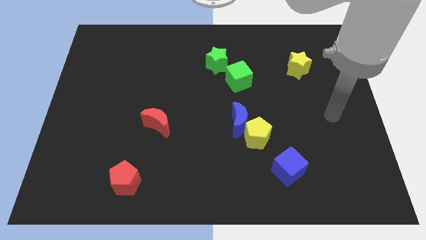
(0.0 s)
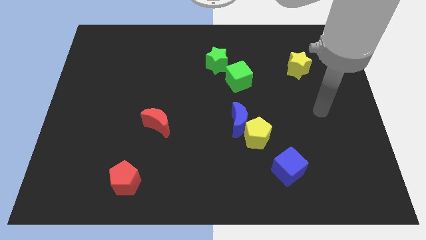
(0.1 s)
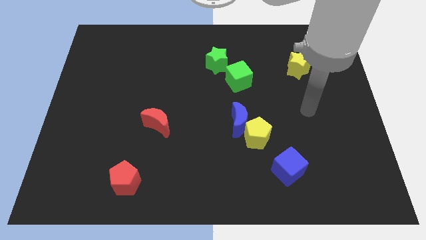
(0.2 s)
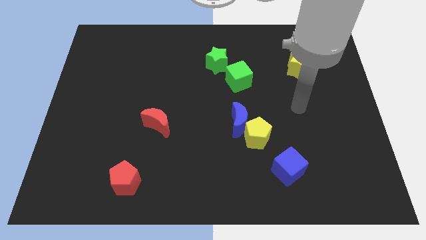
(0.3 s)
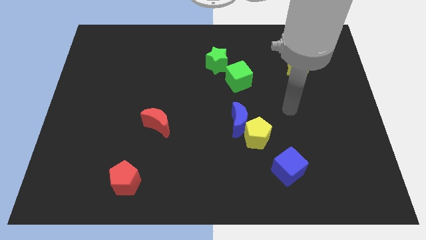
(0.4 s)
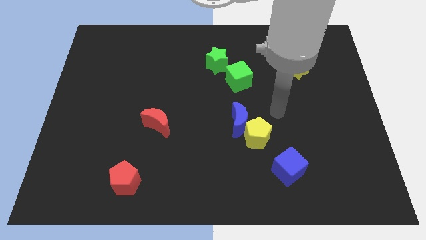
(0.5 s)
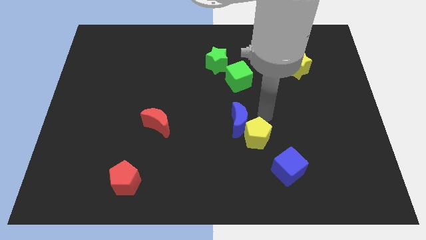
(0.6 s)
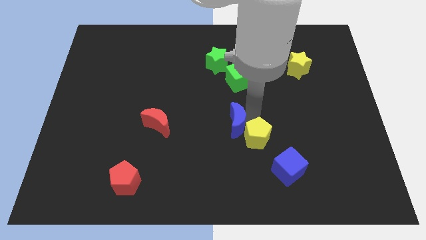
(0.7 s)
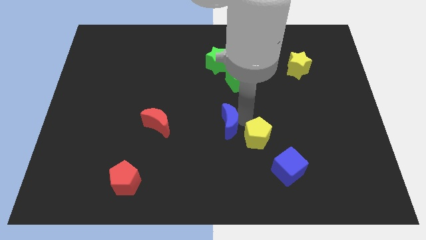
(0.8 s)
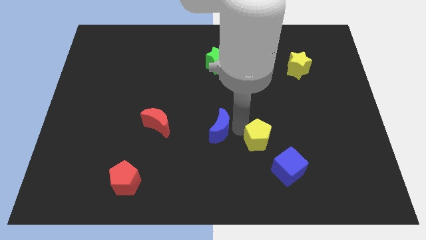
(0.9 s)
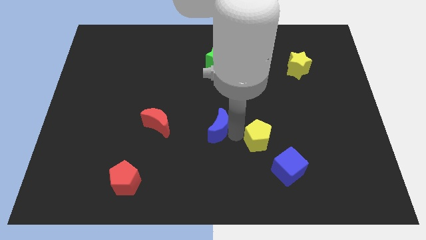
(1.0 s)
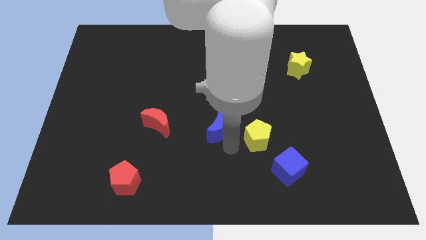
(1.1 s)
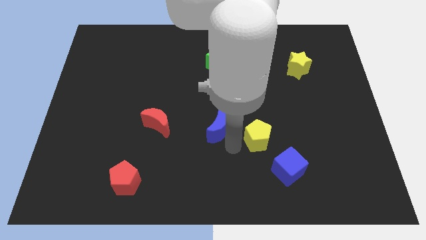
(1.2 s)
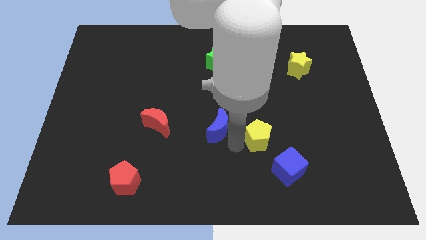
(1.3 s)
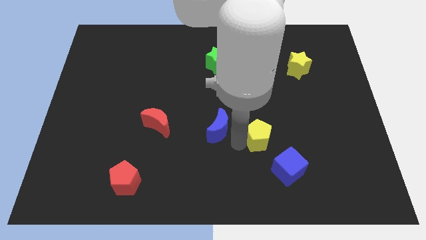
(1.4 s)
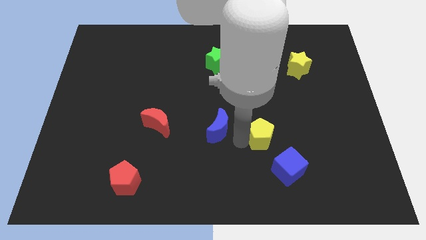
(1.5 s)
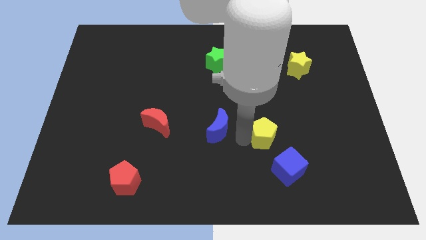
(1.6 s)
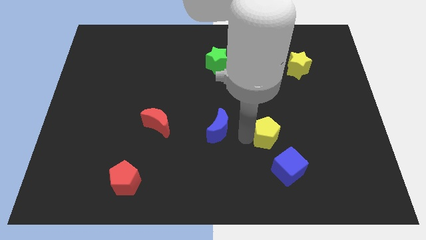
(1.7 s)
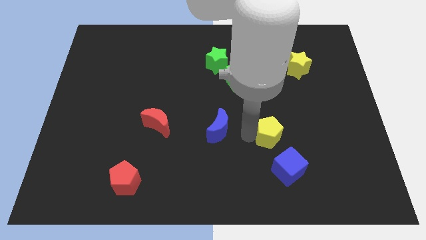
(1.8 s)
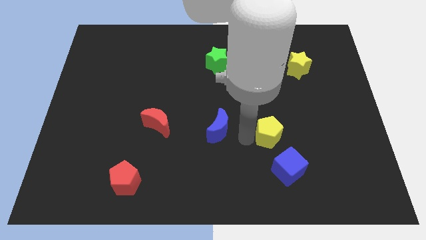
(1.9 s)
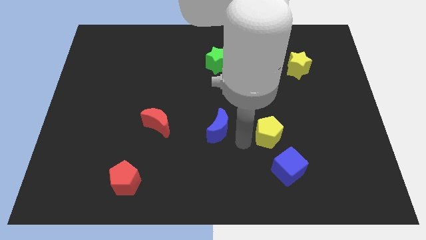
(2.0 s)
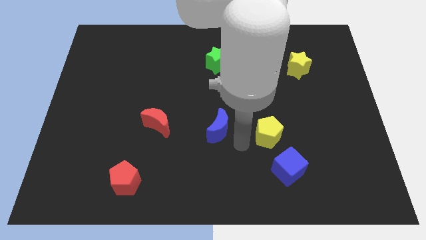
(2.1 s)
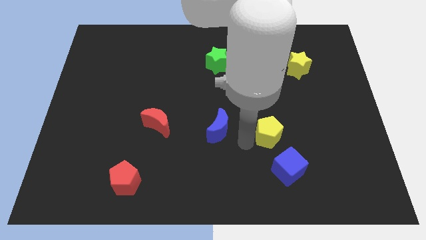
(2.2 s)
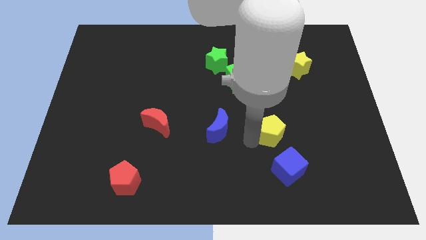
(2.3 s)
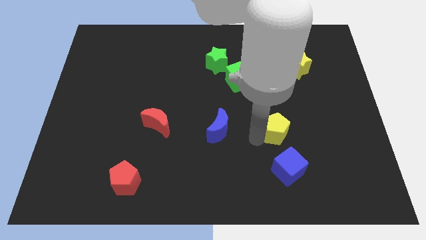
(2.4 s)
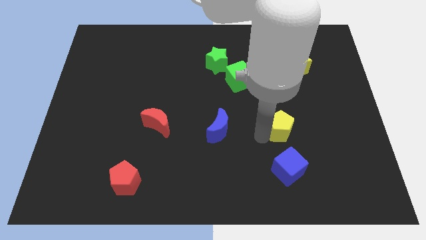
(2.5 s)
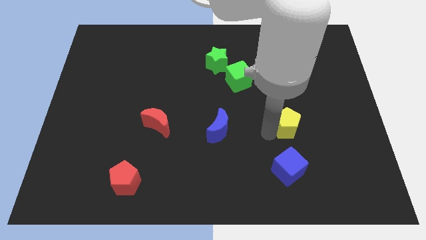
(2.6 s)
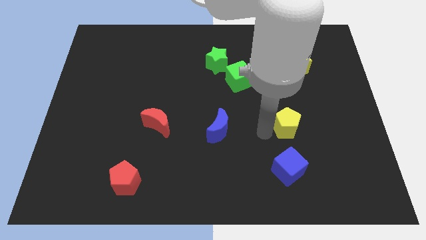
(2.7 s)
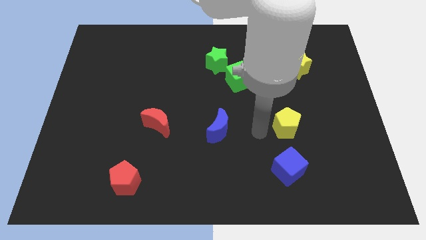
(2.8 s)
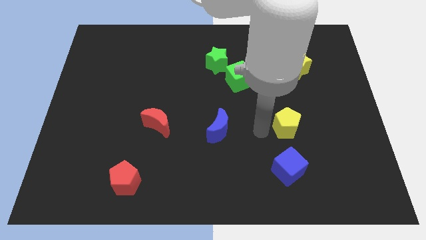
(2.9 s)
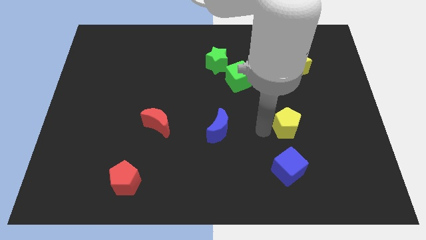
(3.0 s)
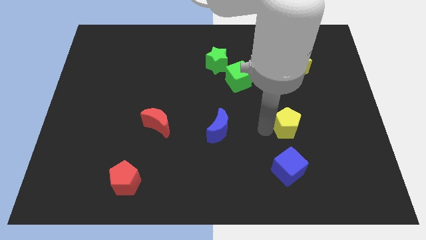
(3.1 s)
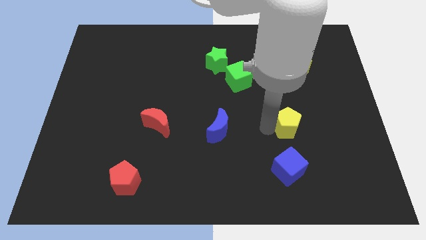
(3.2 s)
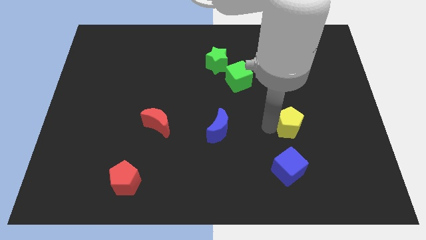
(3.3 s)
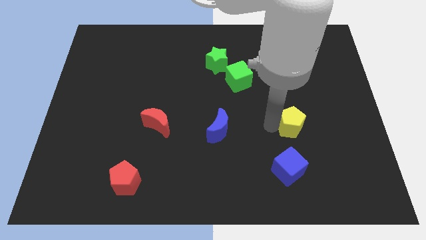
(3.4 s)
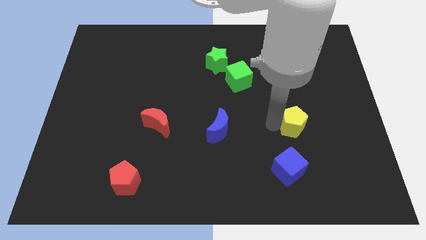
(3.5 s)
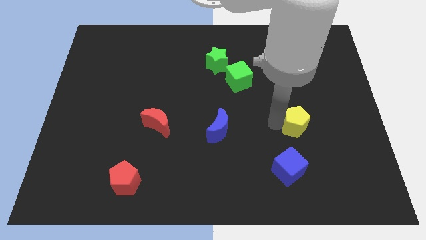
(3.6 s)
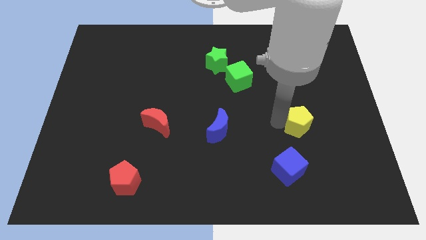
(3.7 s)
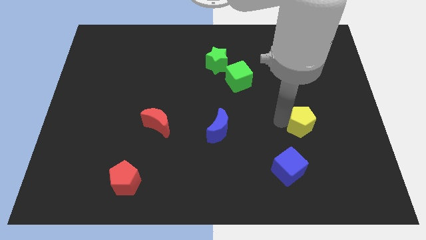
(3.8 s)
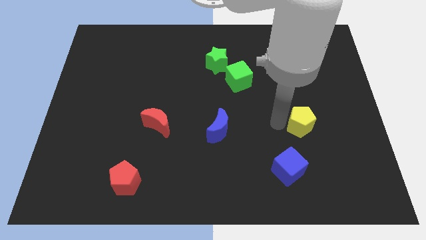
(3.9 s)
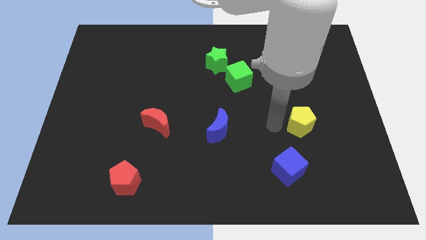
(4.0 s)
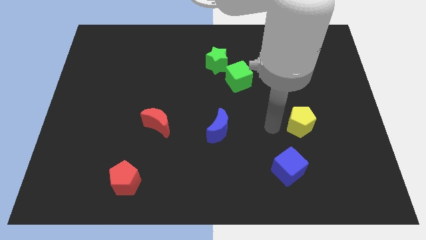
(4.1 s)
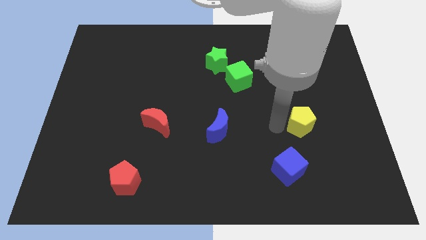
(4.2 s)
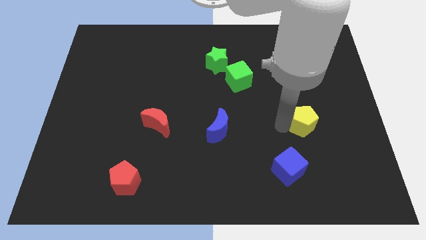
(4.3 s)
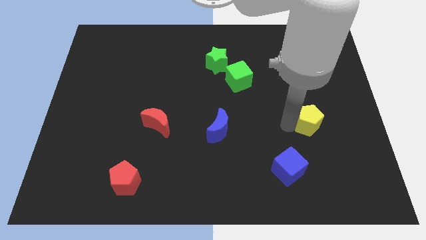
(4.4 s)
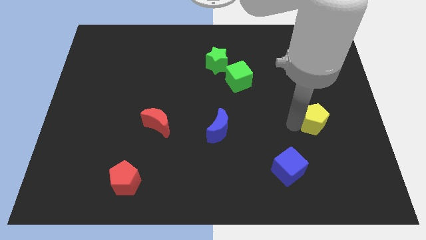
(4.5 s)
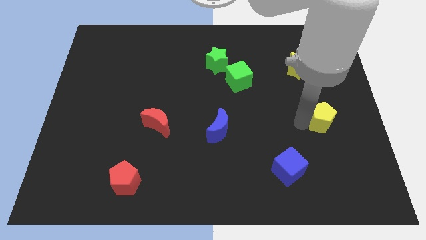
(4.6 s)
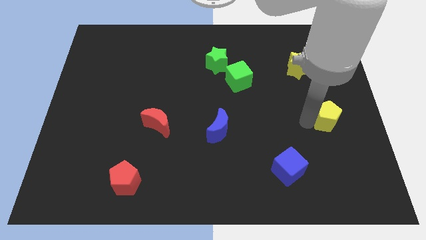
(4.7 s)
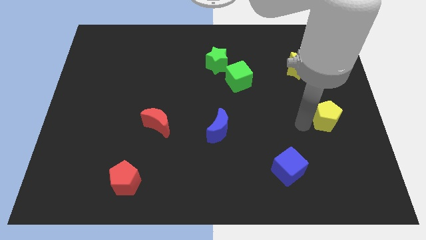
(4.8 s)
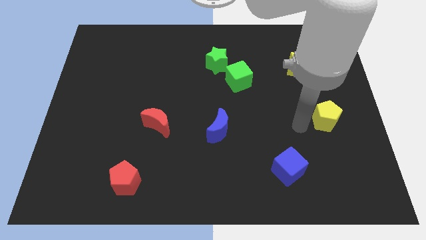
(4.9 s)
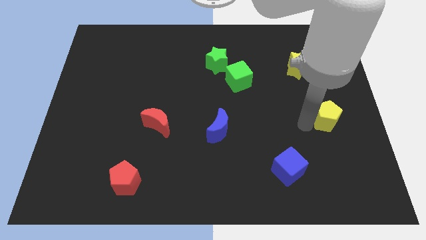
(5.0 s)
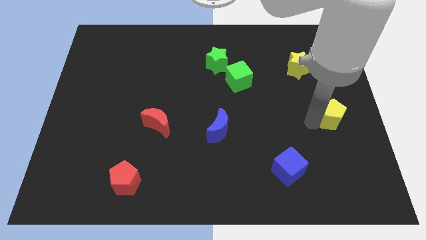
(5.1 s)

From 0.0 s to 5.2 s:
put the yellow pentagon to the right side of the board

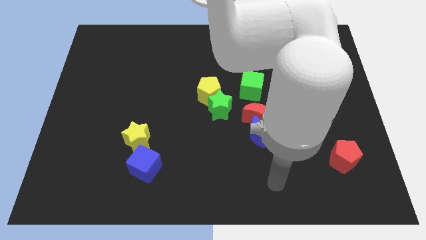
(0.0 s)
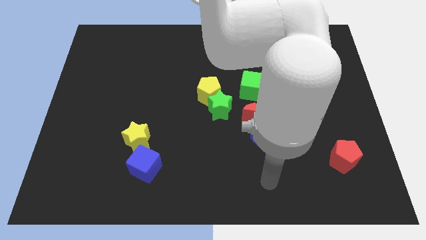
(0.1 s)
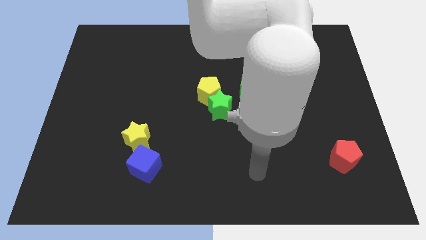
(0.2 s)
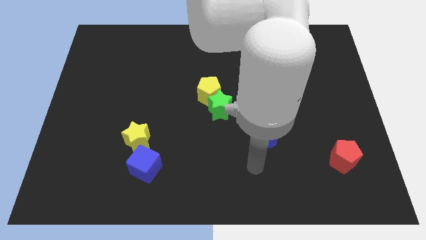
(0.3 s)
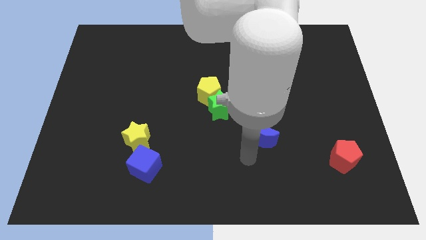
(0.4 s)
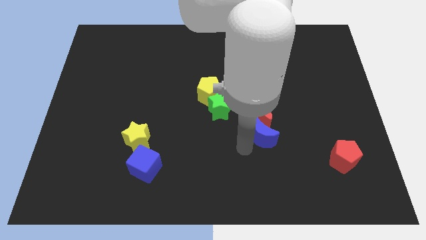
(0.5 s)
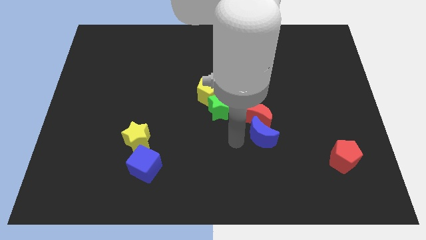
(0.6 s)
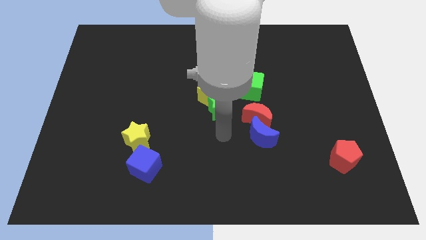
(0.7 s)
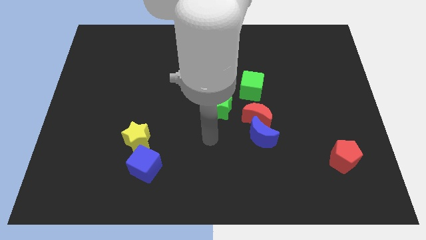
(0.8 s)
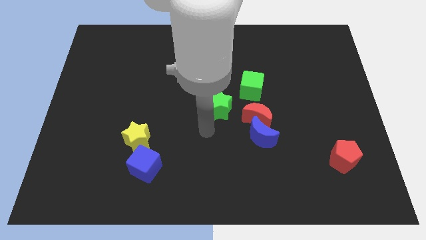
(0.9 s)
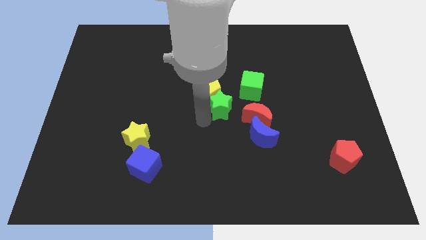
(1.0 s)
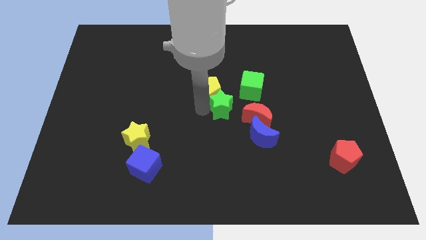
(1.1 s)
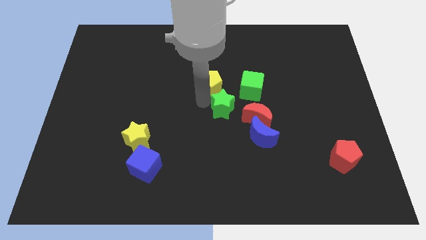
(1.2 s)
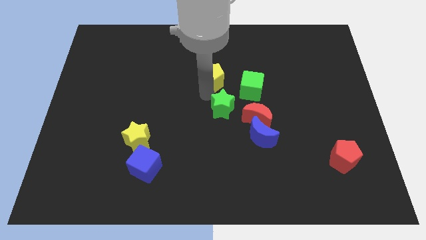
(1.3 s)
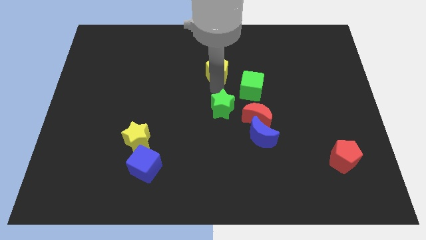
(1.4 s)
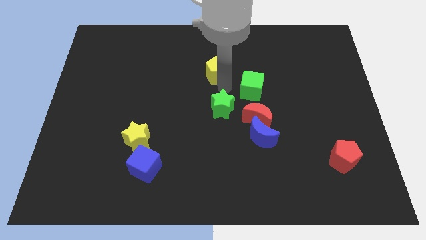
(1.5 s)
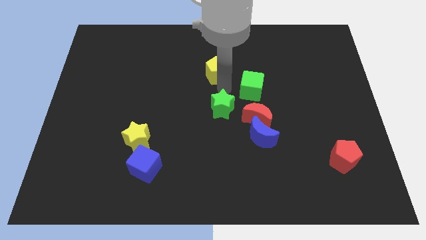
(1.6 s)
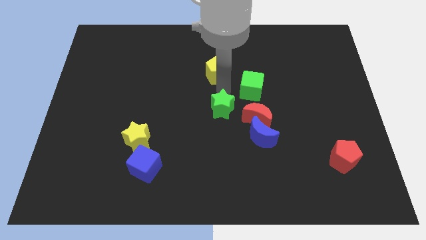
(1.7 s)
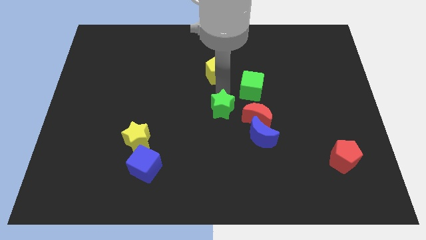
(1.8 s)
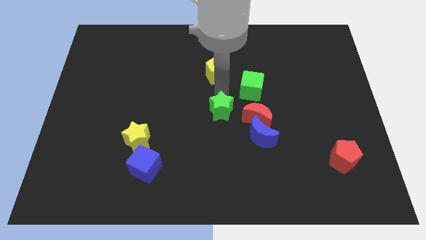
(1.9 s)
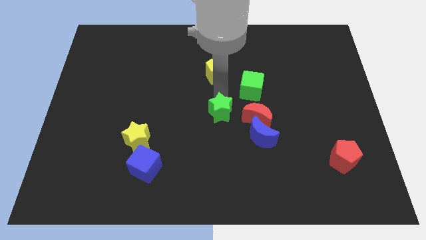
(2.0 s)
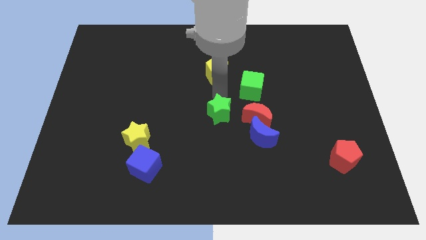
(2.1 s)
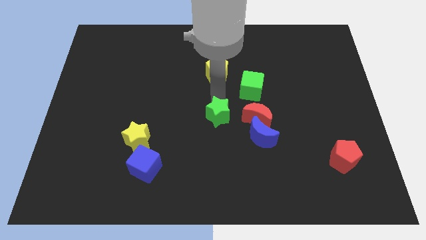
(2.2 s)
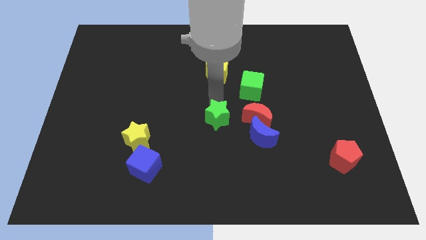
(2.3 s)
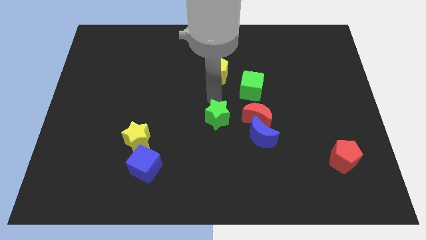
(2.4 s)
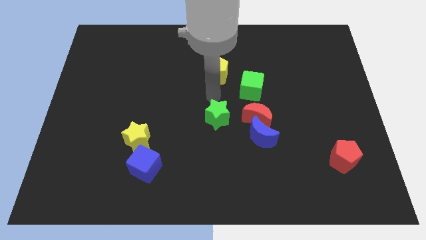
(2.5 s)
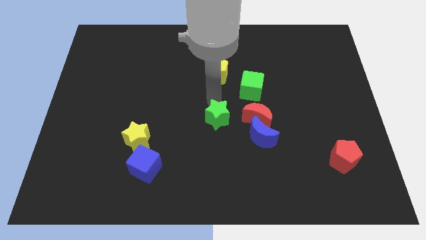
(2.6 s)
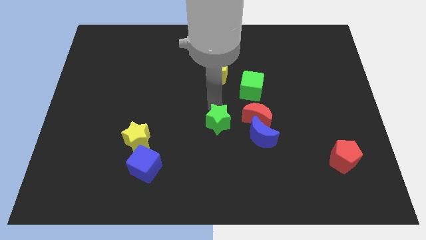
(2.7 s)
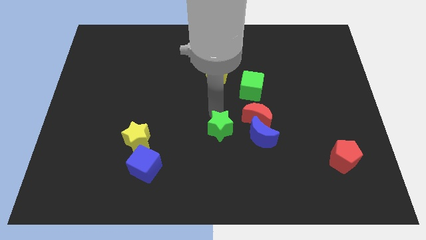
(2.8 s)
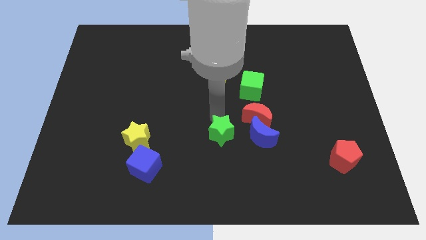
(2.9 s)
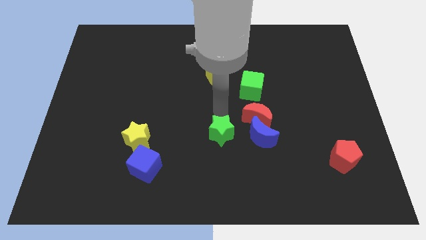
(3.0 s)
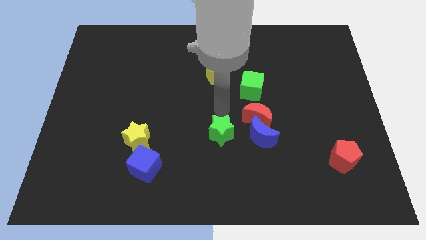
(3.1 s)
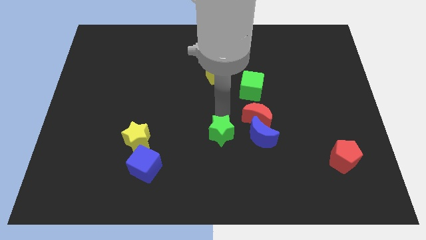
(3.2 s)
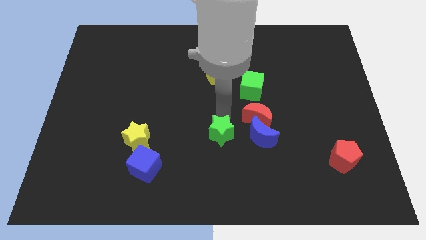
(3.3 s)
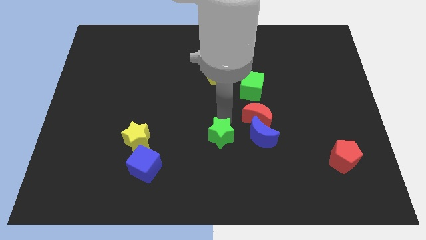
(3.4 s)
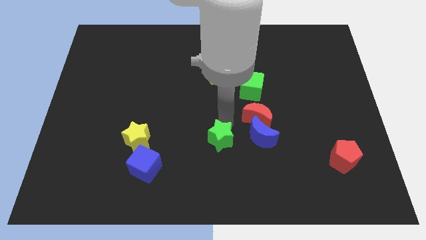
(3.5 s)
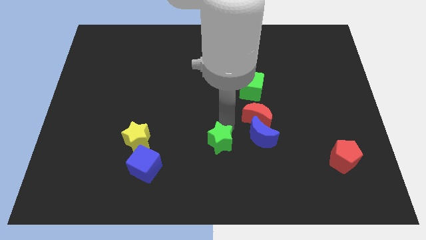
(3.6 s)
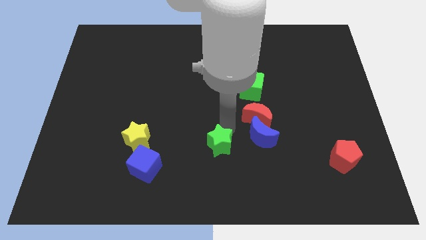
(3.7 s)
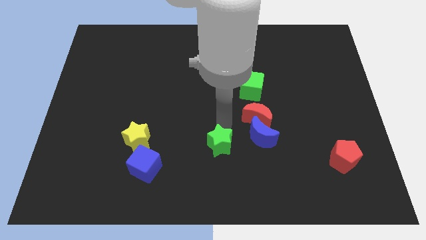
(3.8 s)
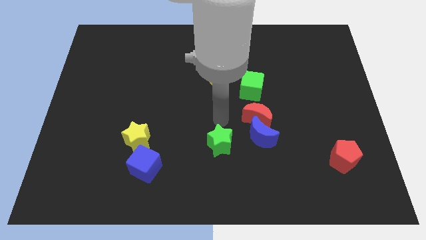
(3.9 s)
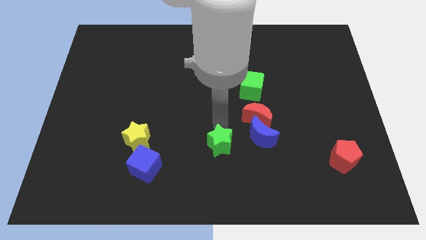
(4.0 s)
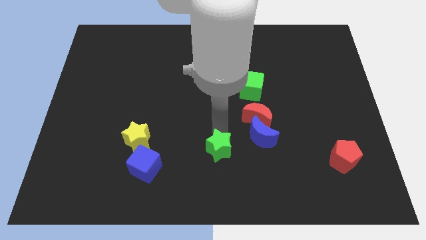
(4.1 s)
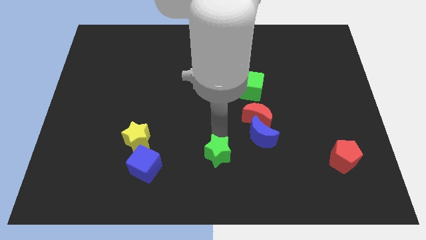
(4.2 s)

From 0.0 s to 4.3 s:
push the green star to the bottom
